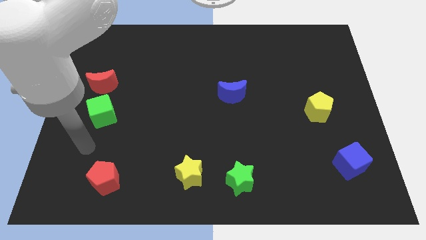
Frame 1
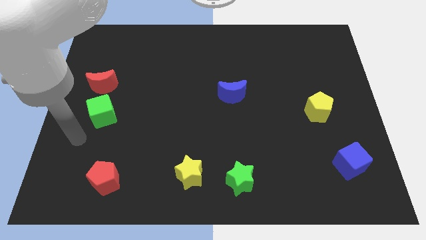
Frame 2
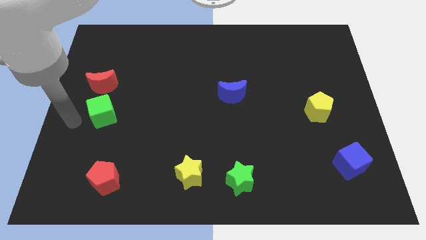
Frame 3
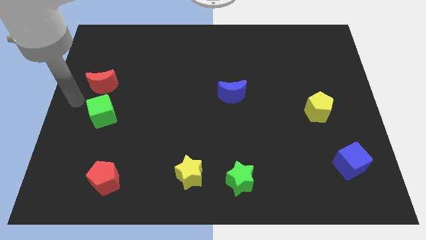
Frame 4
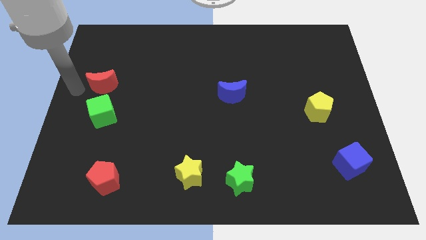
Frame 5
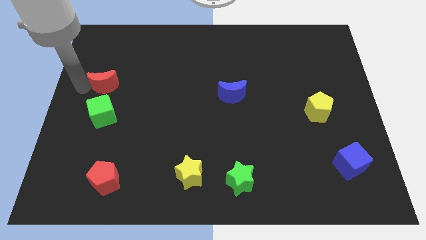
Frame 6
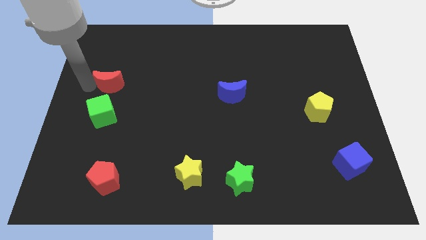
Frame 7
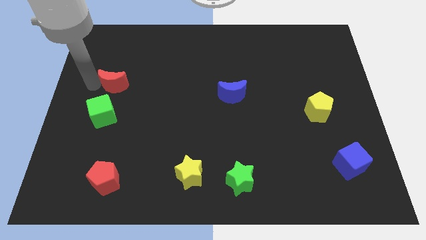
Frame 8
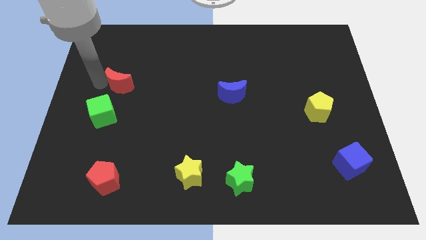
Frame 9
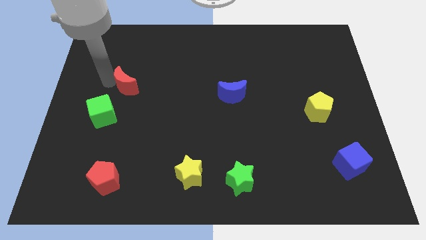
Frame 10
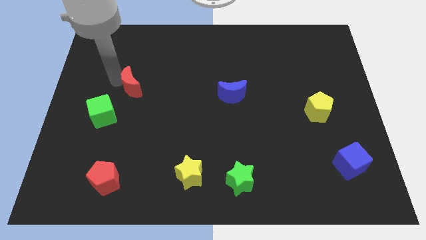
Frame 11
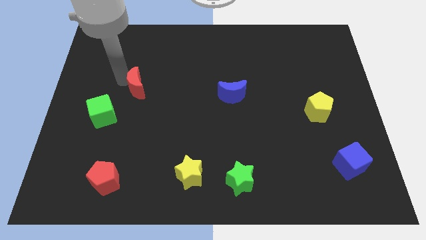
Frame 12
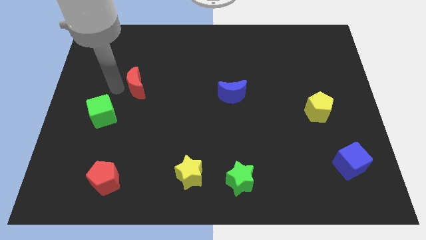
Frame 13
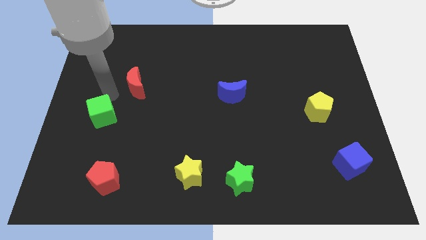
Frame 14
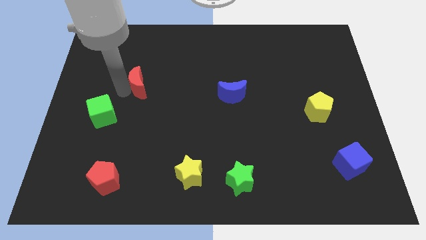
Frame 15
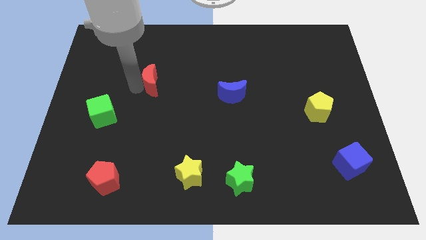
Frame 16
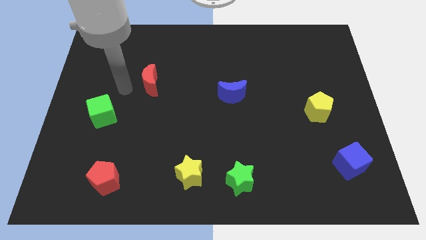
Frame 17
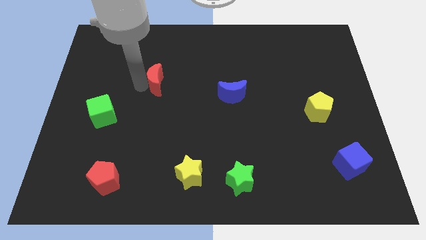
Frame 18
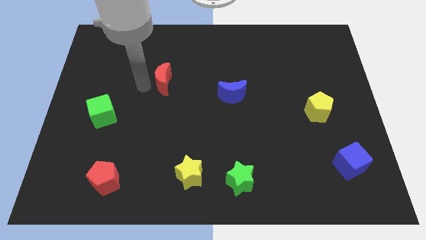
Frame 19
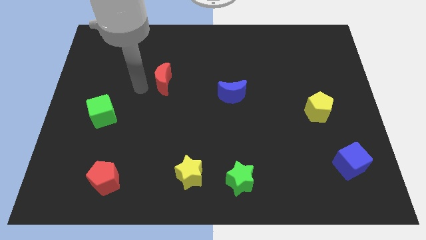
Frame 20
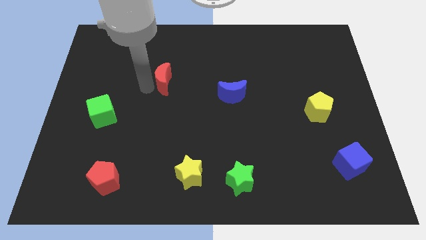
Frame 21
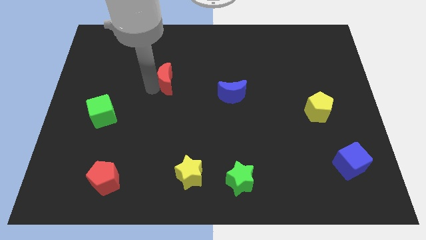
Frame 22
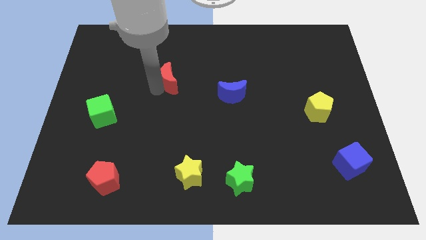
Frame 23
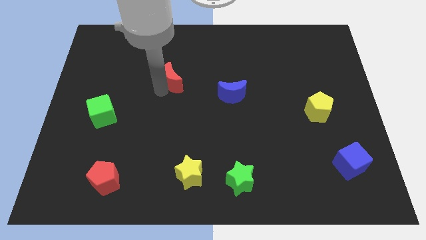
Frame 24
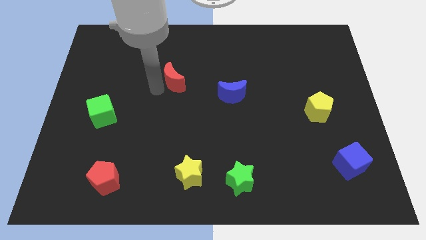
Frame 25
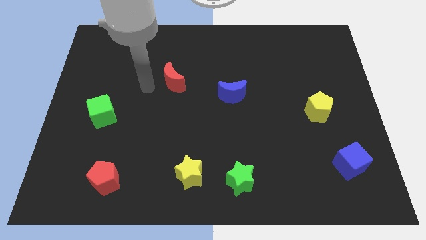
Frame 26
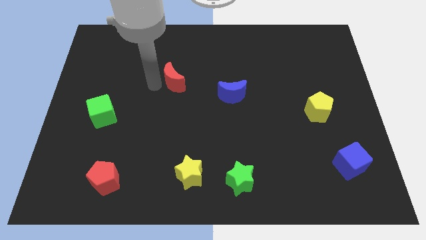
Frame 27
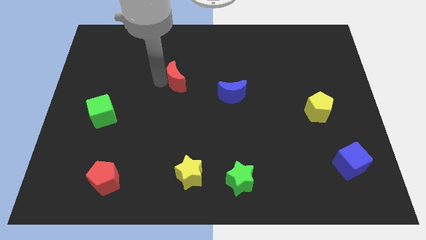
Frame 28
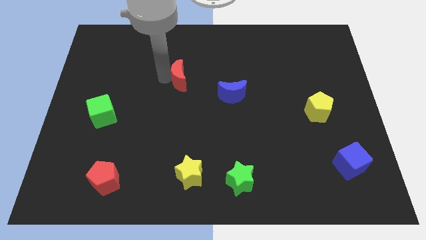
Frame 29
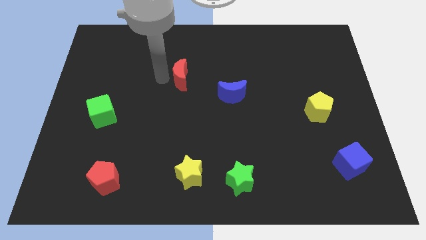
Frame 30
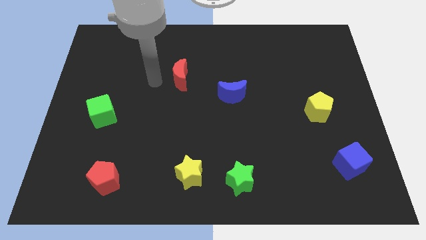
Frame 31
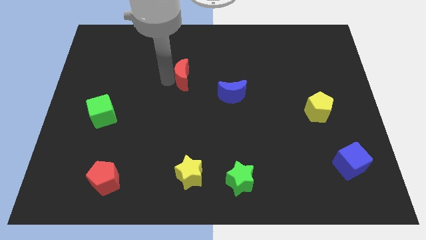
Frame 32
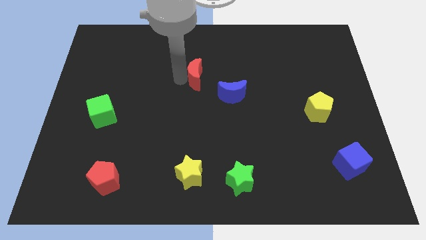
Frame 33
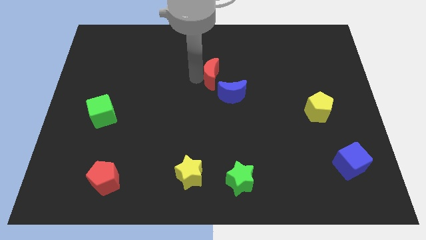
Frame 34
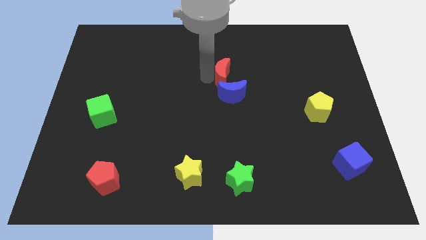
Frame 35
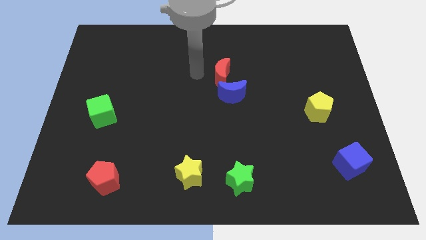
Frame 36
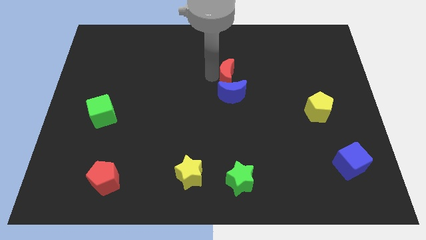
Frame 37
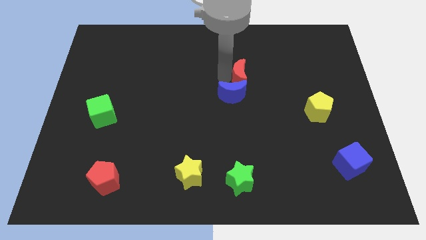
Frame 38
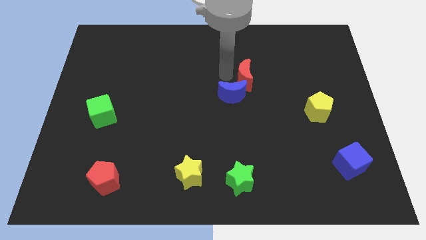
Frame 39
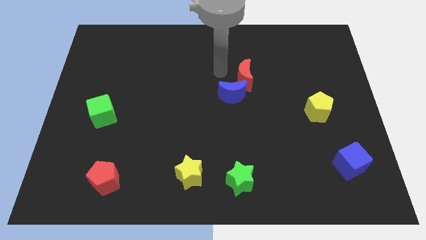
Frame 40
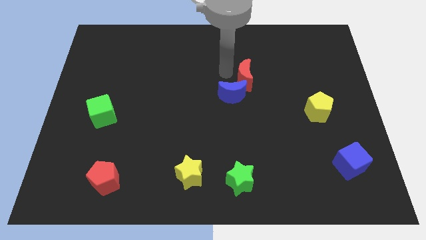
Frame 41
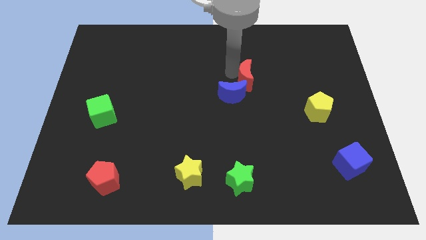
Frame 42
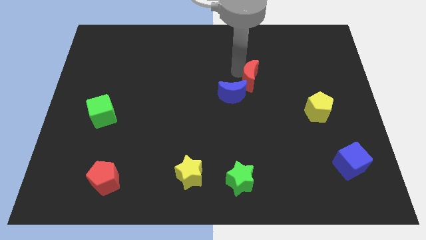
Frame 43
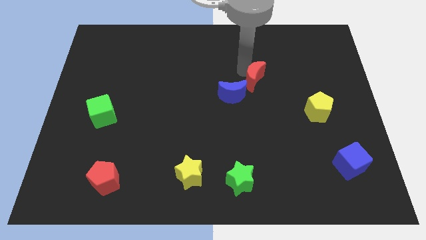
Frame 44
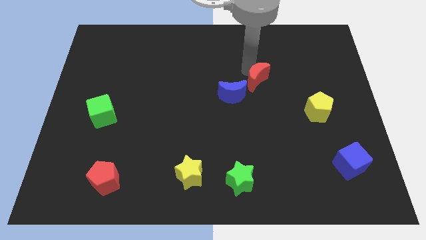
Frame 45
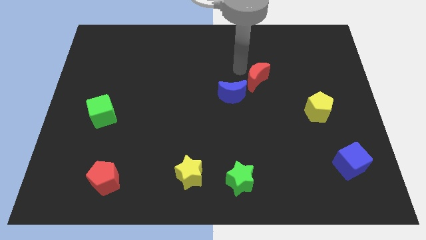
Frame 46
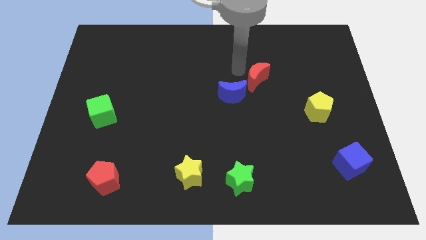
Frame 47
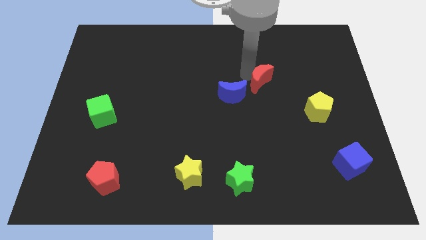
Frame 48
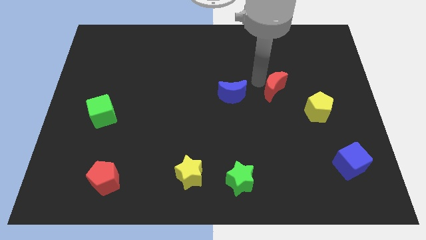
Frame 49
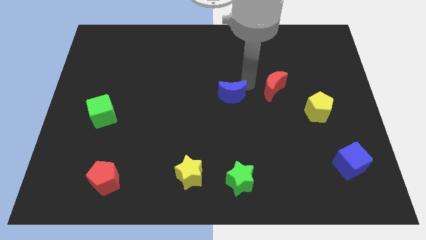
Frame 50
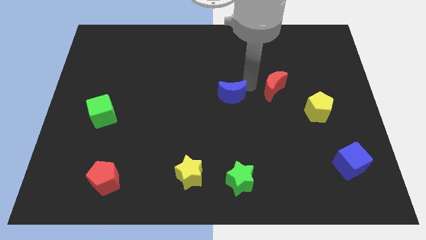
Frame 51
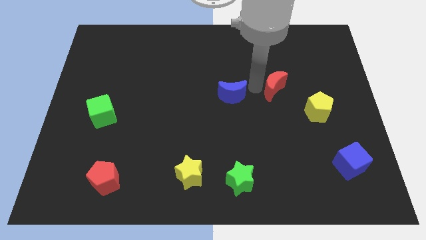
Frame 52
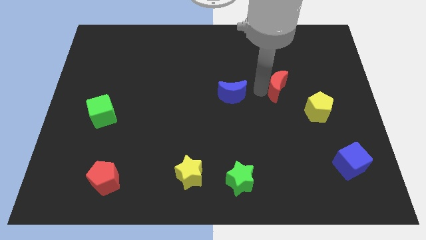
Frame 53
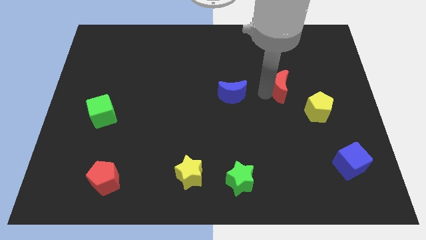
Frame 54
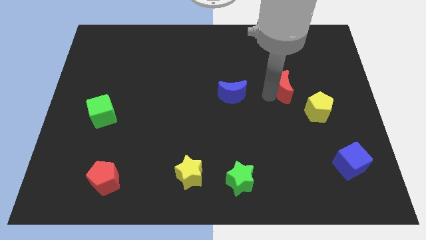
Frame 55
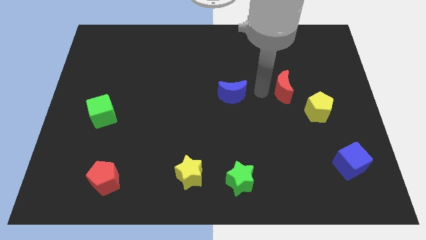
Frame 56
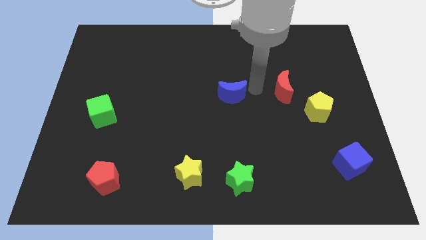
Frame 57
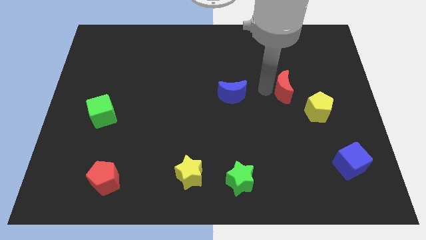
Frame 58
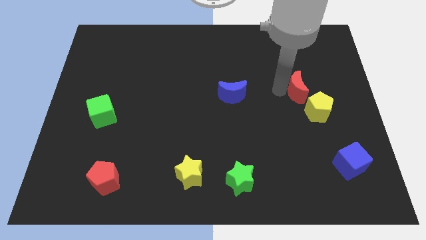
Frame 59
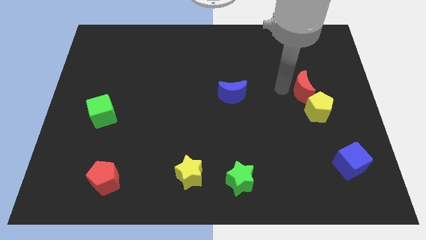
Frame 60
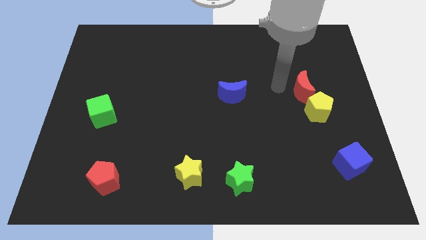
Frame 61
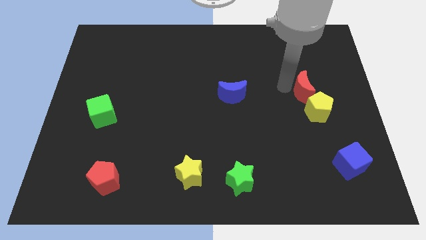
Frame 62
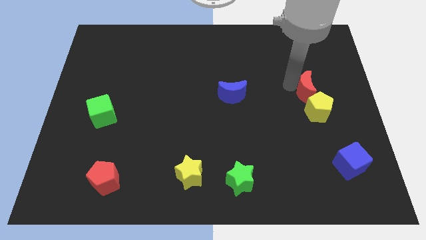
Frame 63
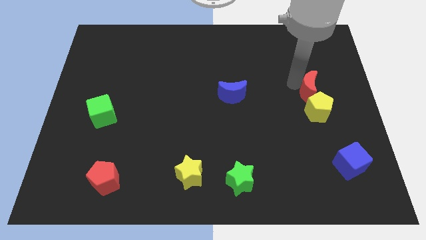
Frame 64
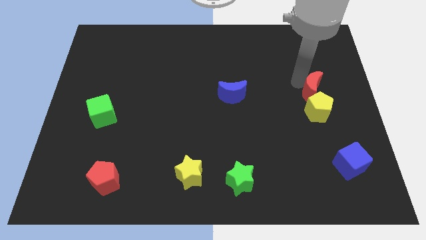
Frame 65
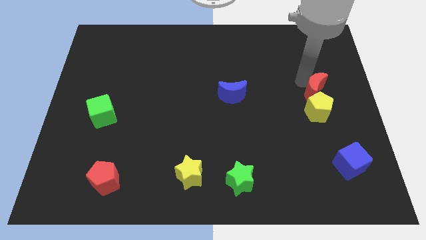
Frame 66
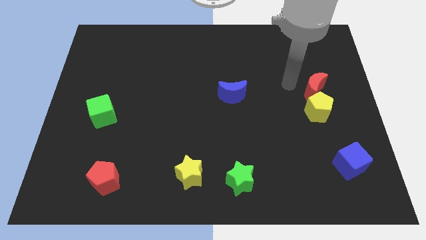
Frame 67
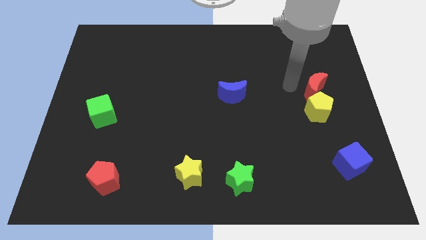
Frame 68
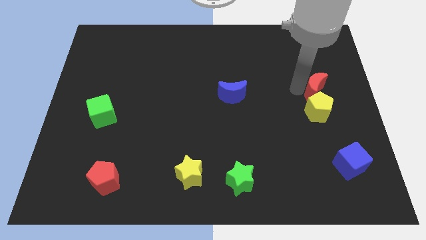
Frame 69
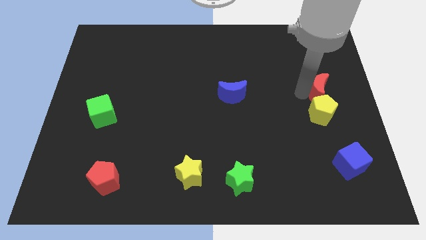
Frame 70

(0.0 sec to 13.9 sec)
slide the red moon to the right side of the board
